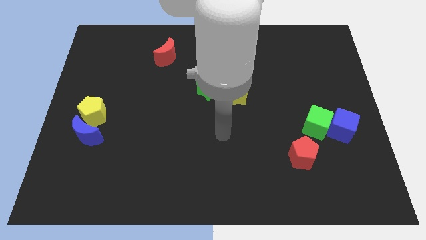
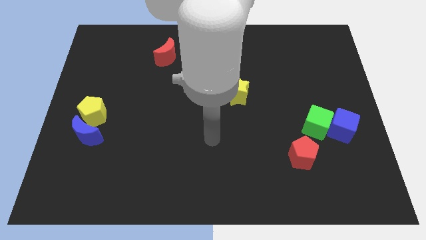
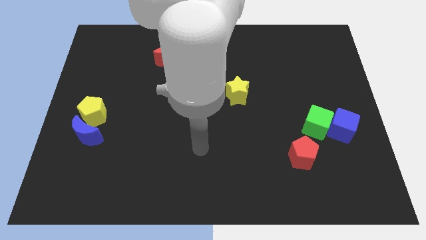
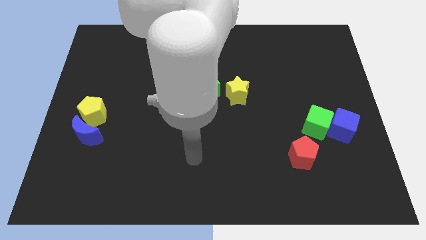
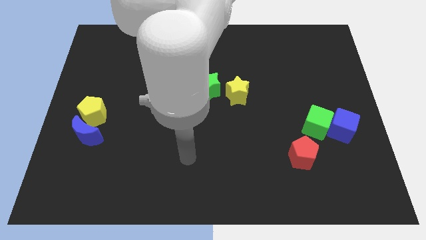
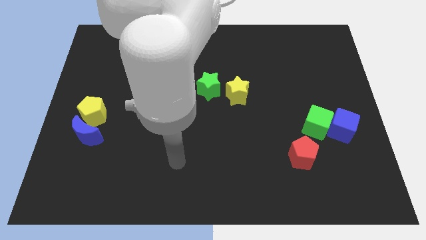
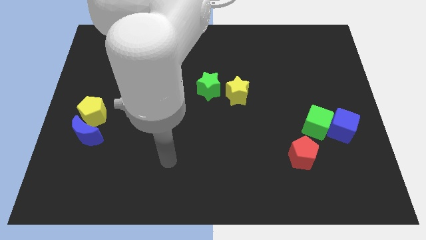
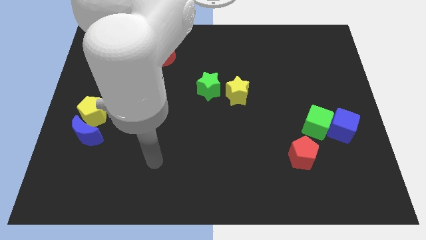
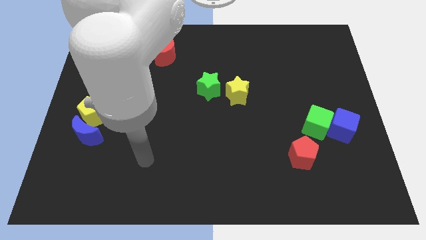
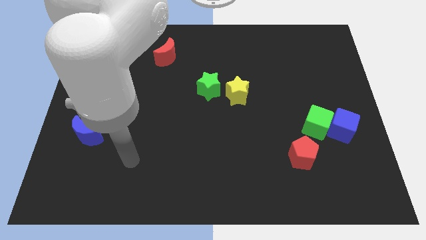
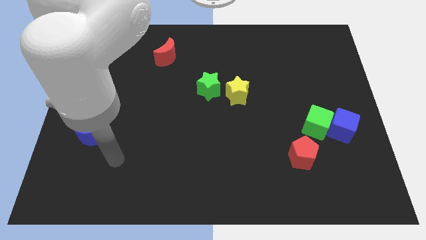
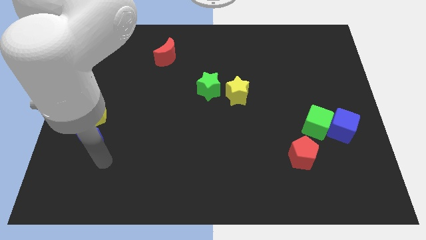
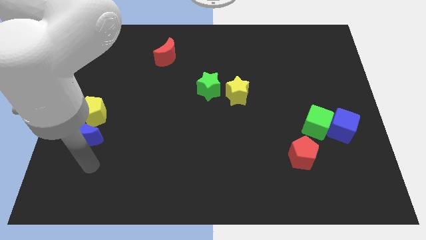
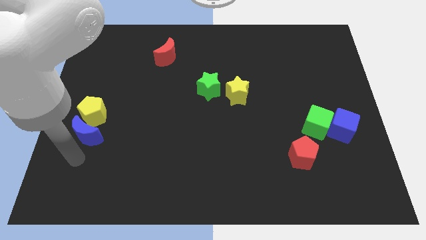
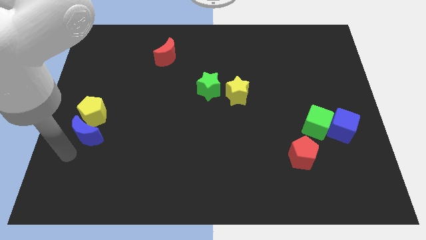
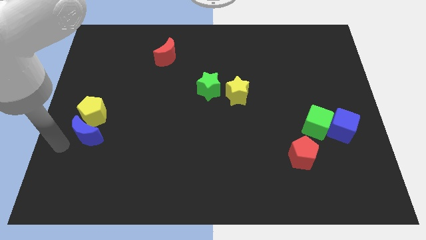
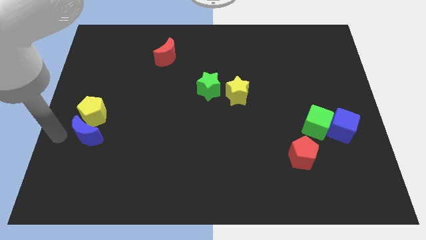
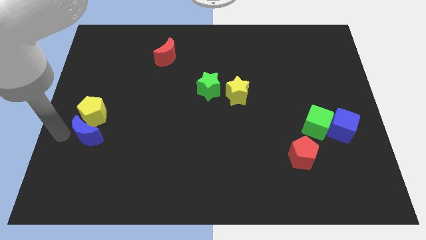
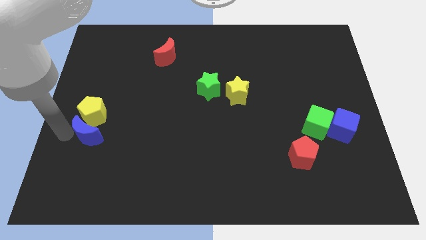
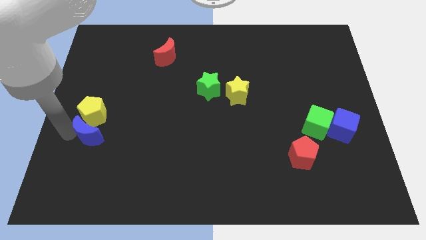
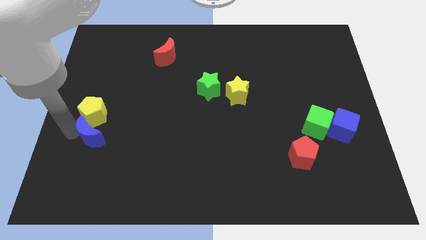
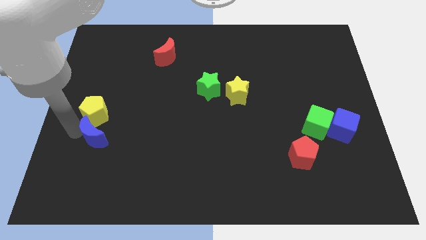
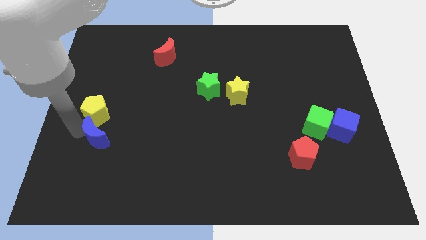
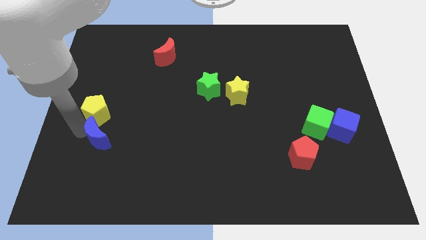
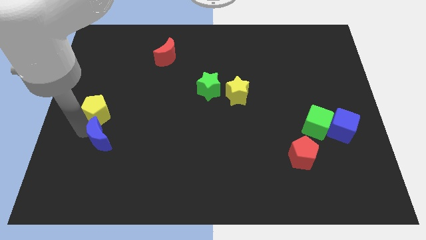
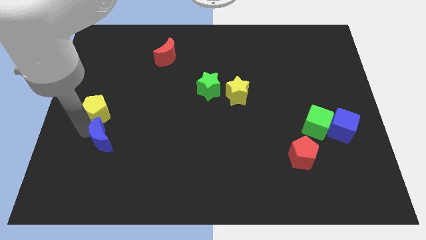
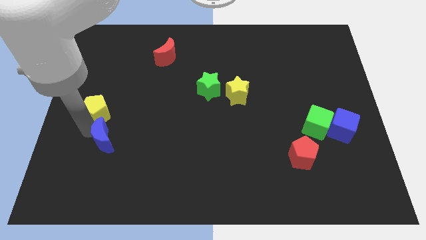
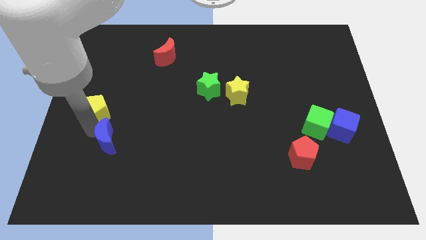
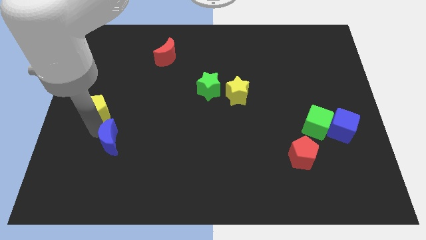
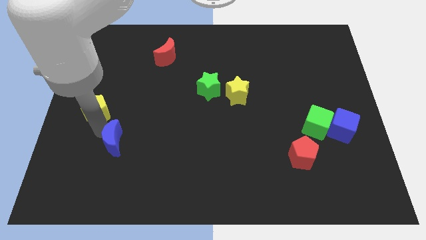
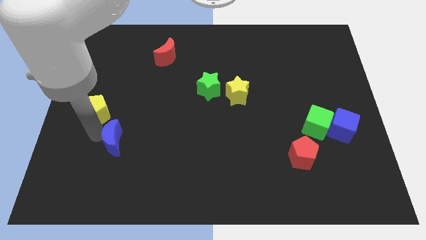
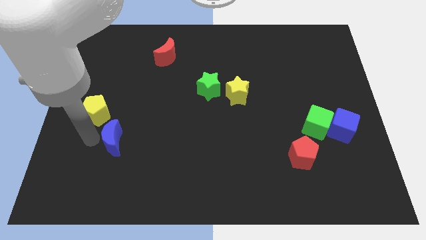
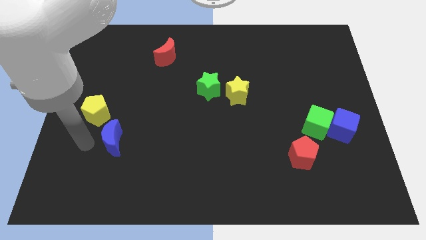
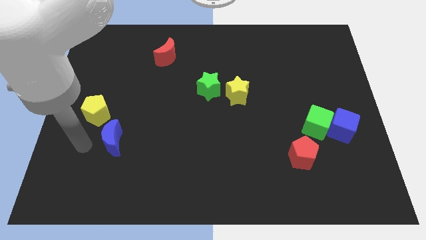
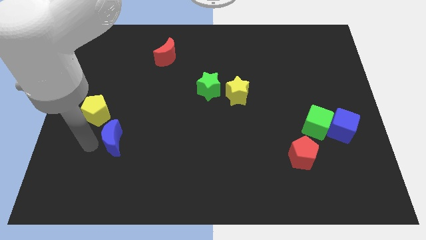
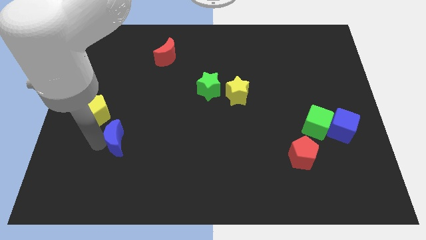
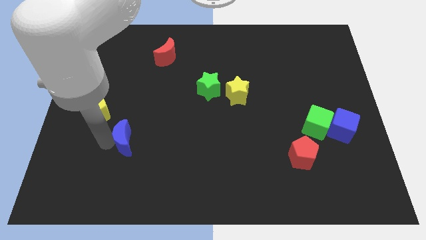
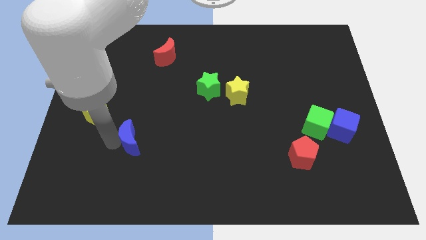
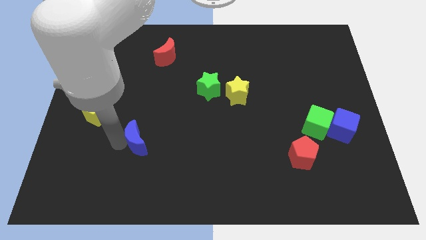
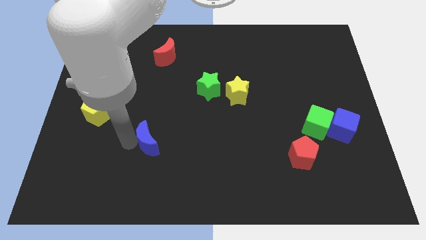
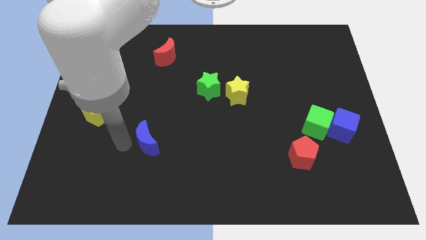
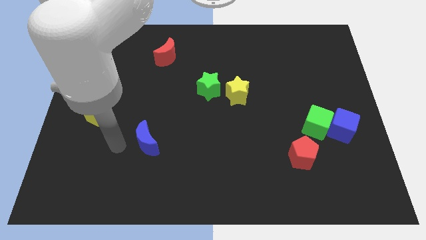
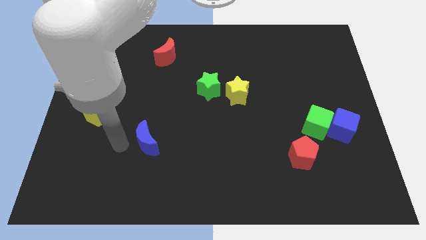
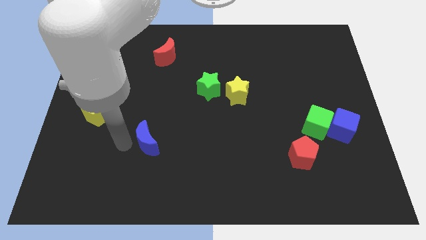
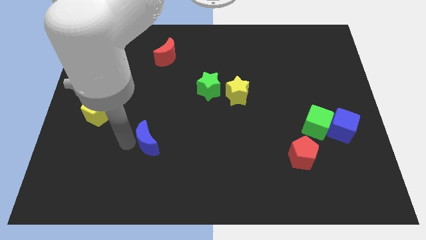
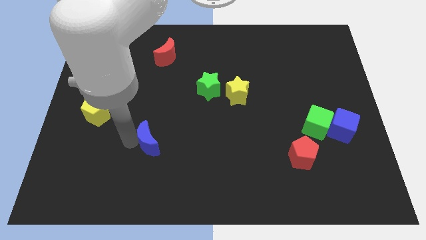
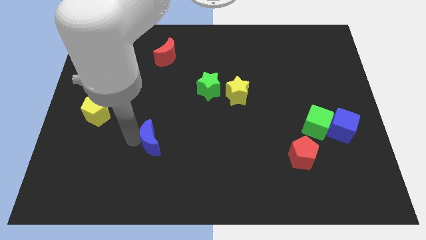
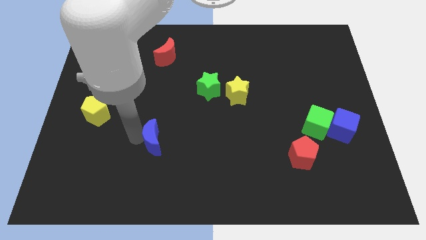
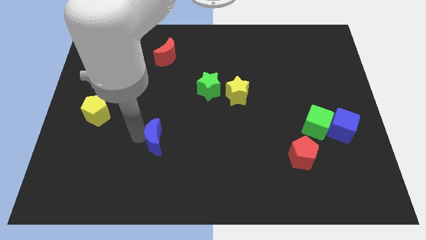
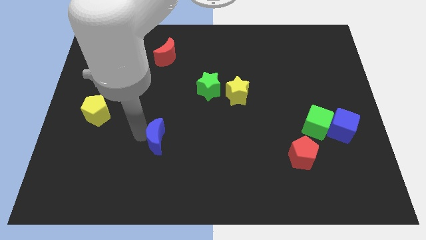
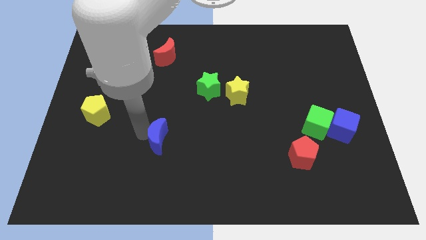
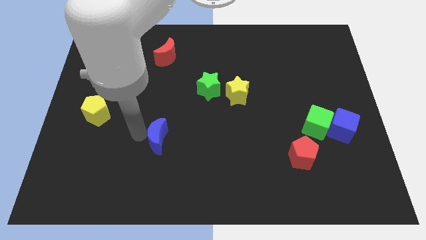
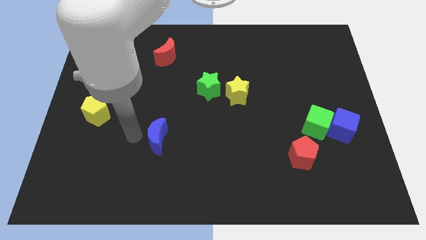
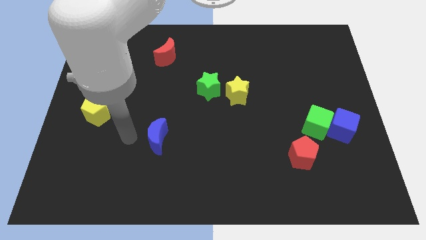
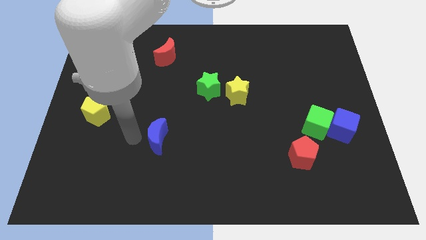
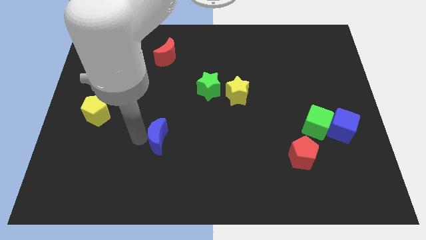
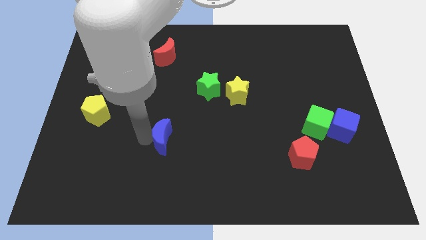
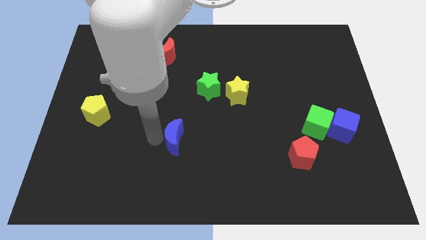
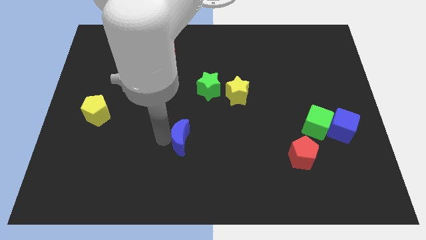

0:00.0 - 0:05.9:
move the blue moon right

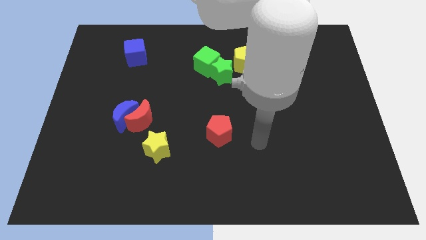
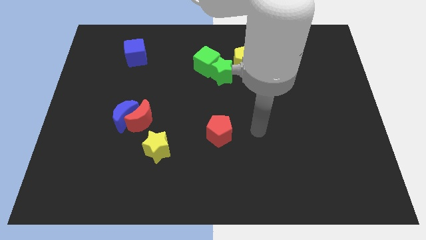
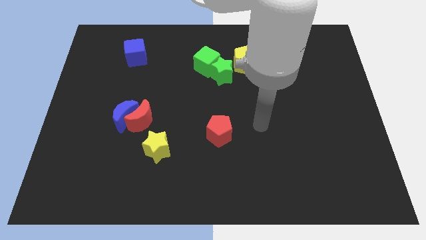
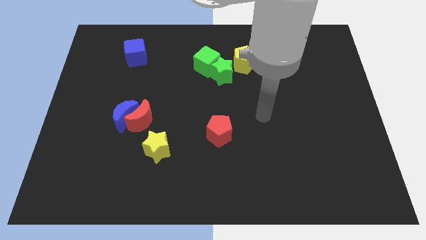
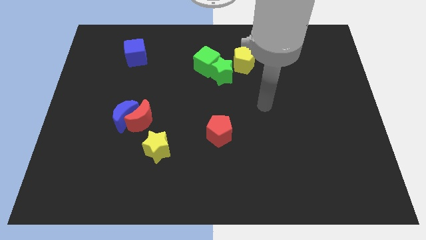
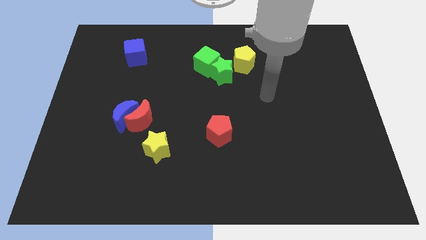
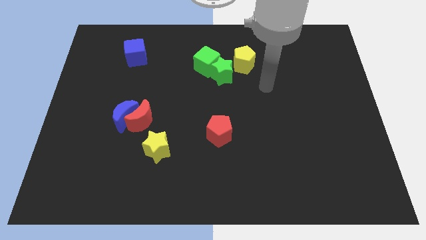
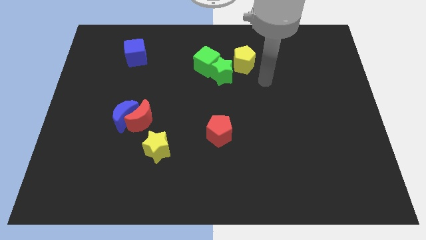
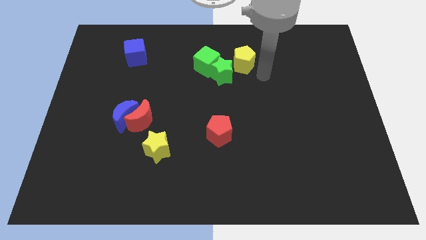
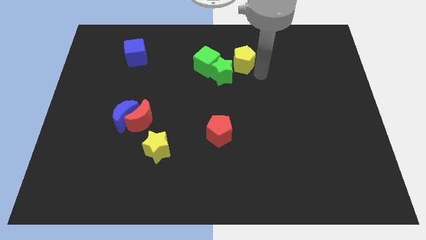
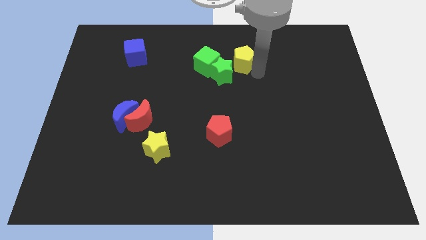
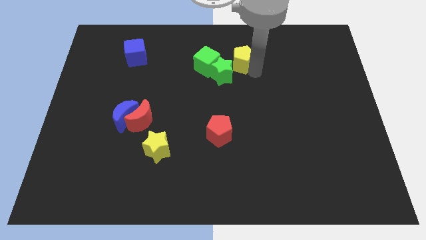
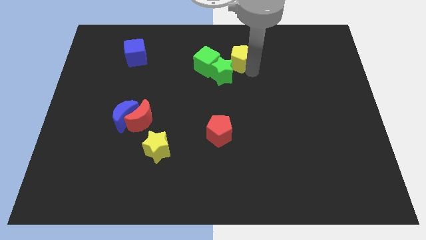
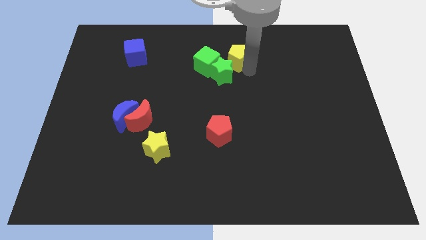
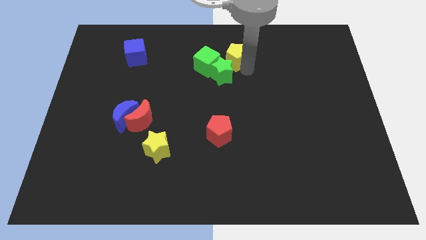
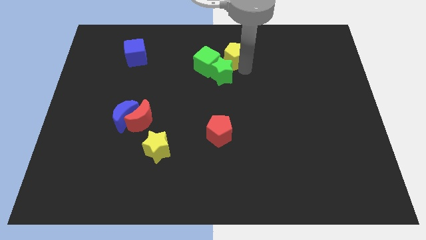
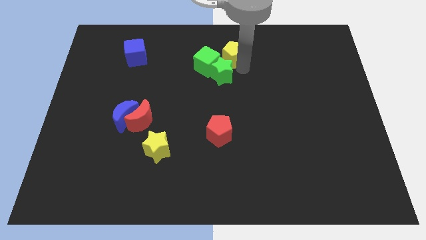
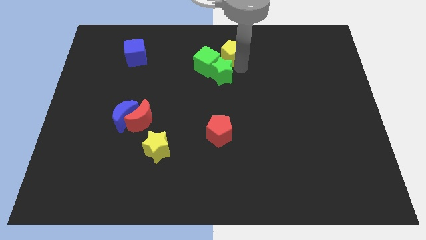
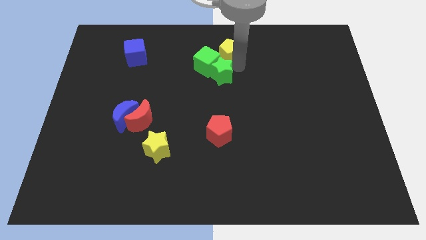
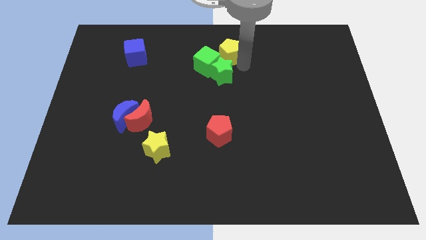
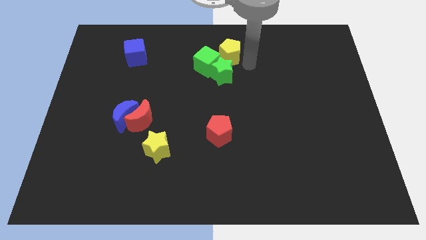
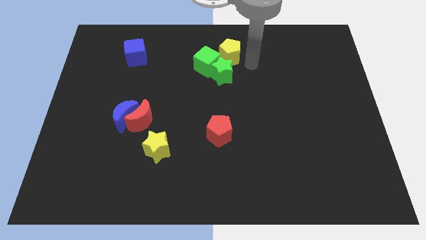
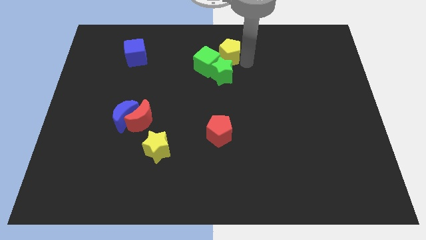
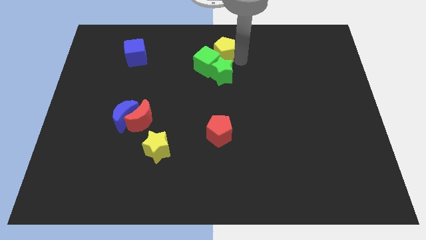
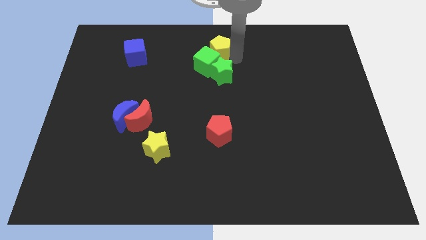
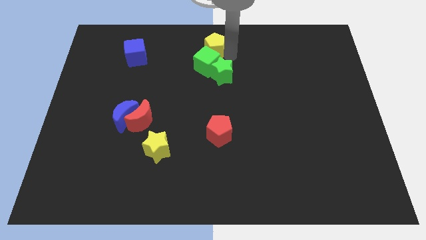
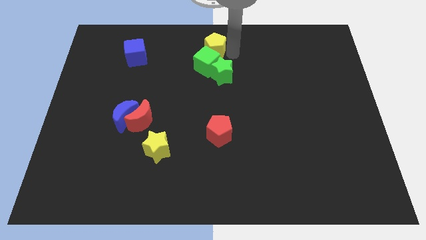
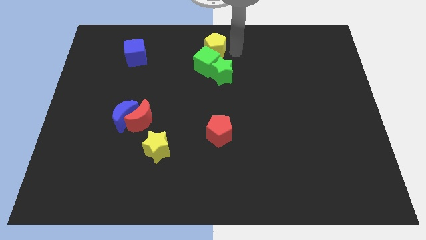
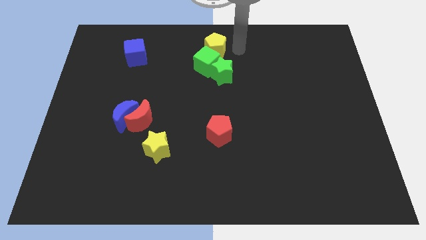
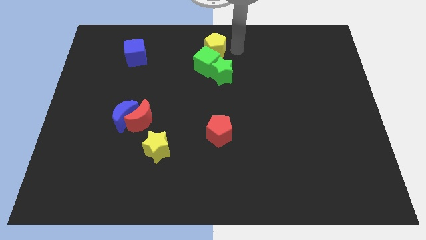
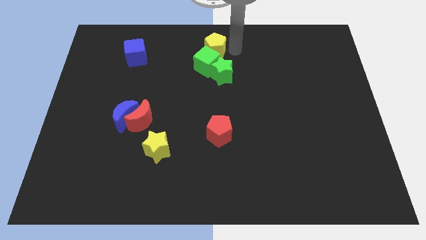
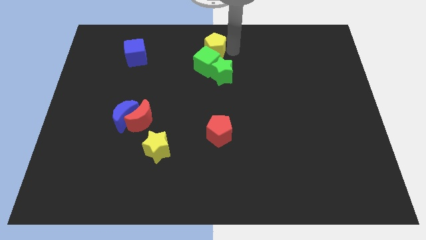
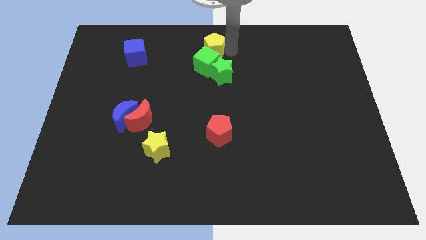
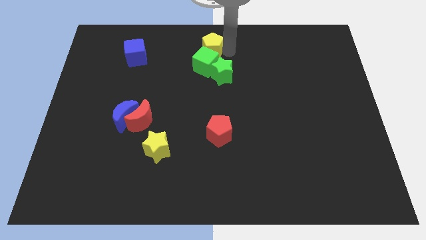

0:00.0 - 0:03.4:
slightly push the yellow pentagon left
